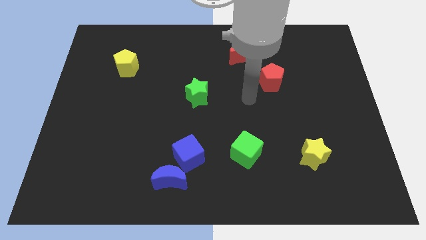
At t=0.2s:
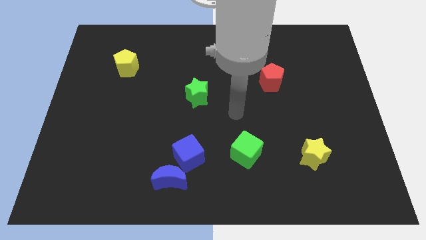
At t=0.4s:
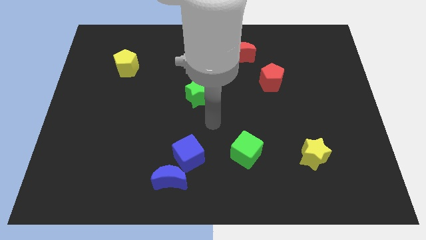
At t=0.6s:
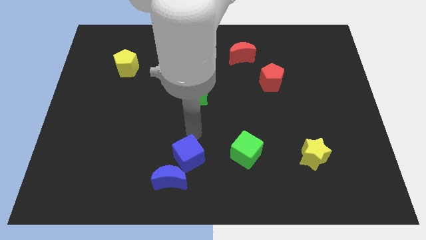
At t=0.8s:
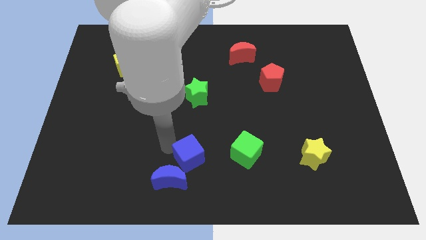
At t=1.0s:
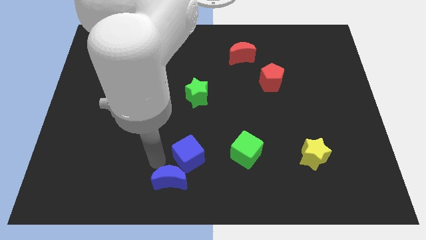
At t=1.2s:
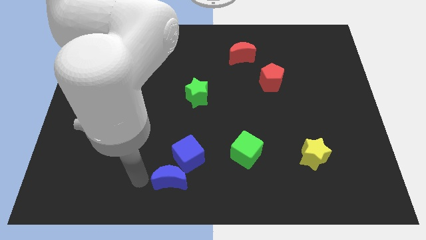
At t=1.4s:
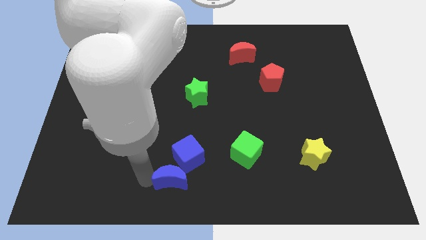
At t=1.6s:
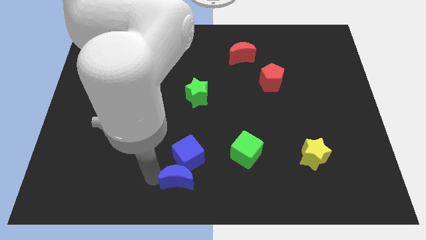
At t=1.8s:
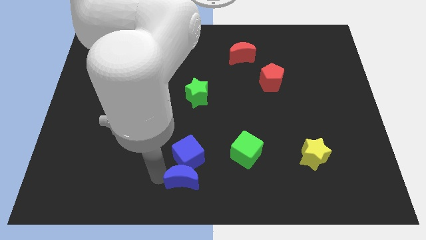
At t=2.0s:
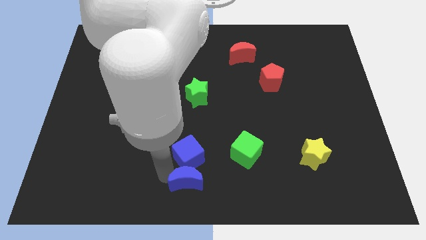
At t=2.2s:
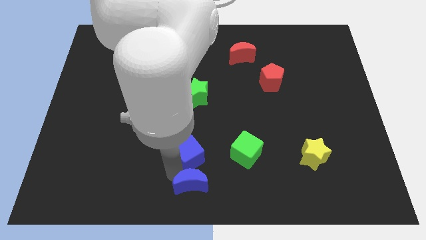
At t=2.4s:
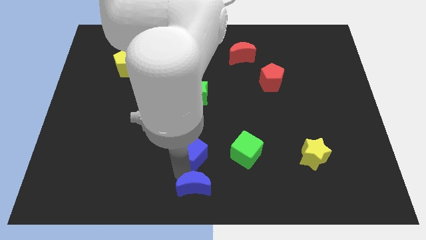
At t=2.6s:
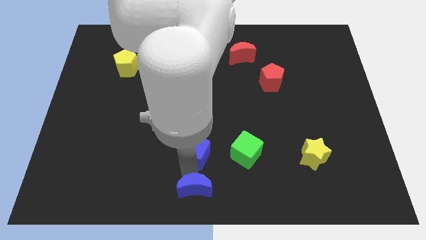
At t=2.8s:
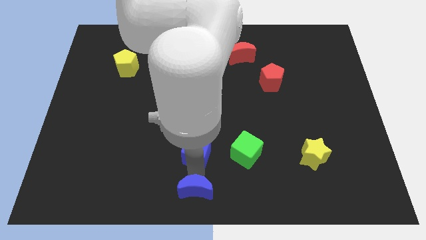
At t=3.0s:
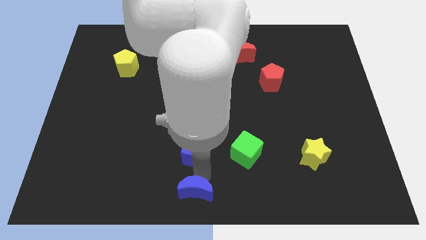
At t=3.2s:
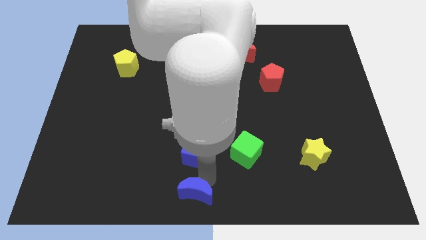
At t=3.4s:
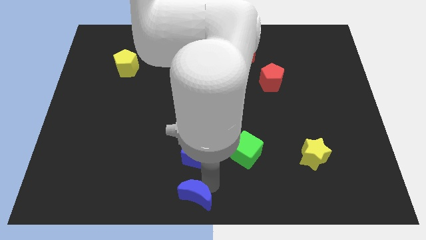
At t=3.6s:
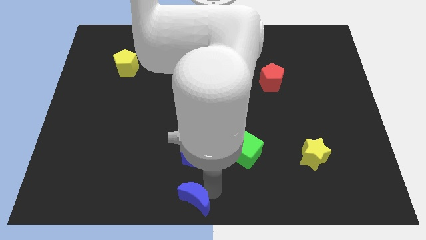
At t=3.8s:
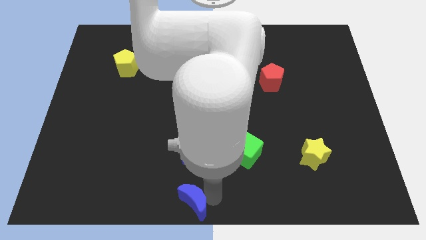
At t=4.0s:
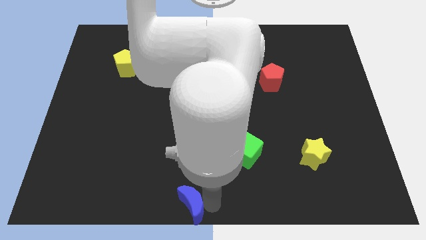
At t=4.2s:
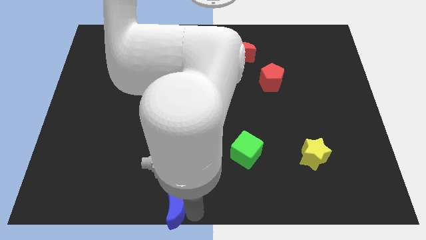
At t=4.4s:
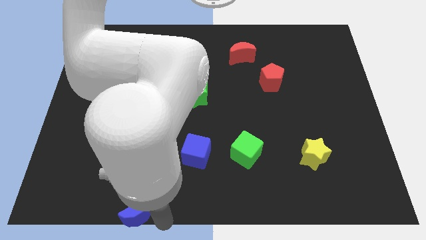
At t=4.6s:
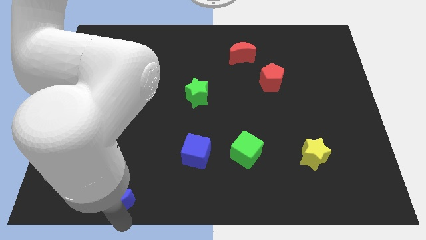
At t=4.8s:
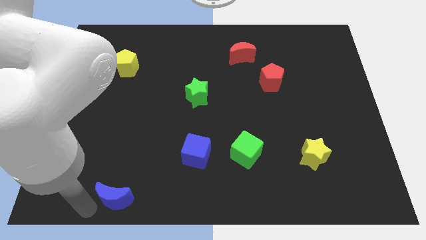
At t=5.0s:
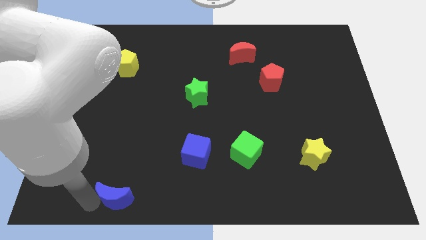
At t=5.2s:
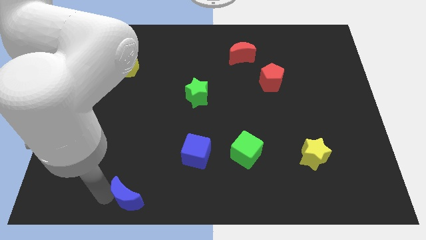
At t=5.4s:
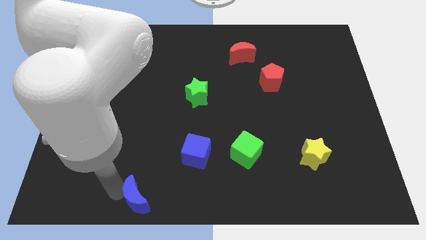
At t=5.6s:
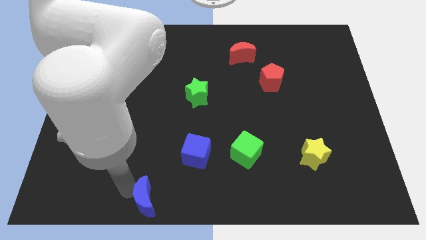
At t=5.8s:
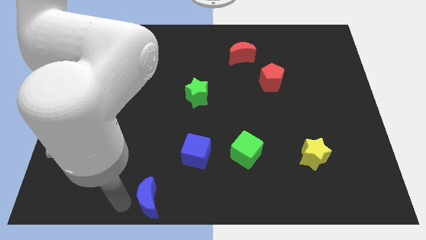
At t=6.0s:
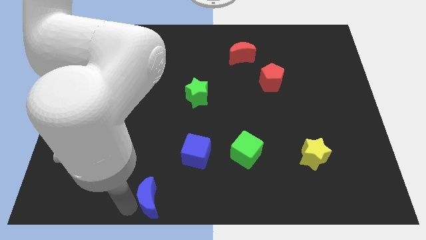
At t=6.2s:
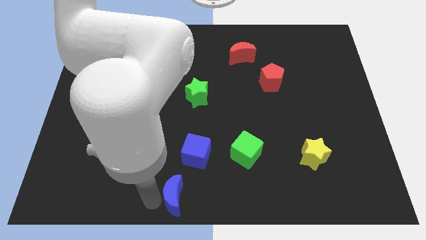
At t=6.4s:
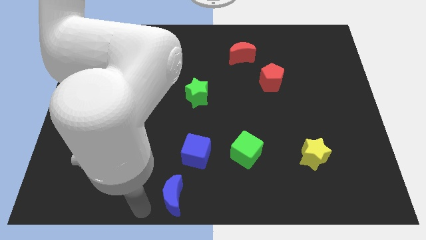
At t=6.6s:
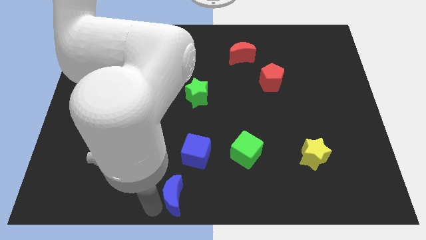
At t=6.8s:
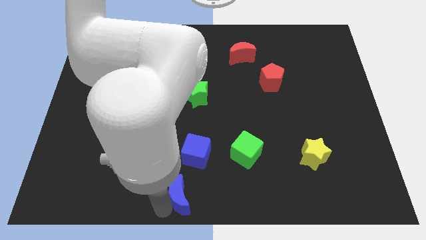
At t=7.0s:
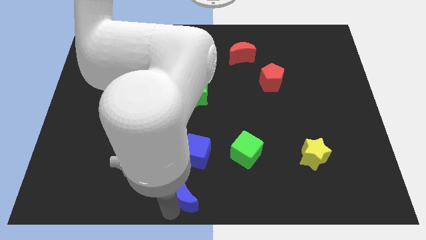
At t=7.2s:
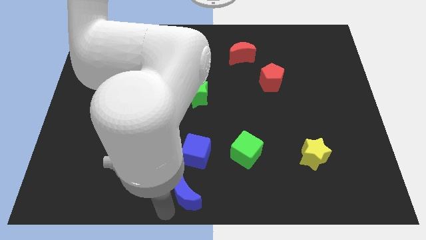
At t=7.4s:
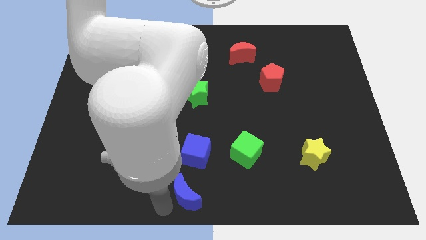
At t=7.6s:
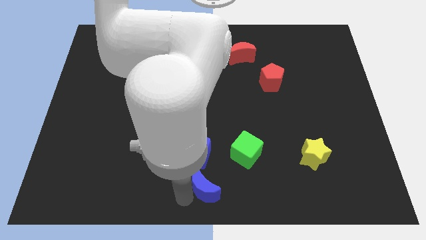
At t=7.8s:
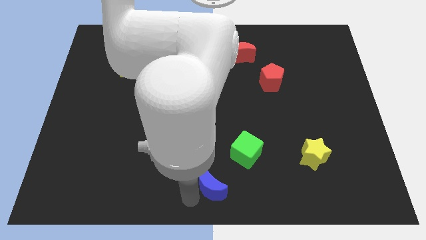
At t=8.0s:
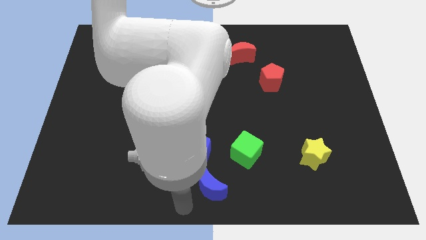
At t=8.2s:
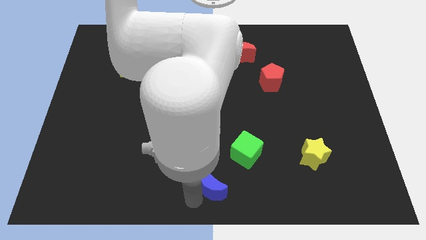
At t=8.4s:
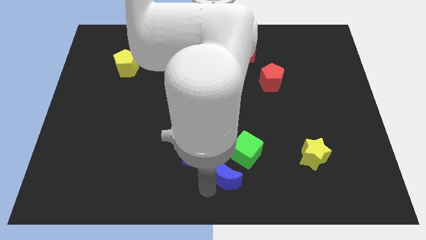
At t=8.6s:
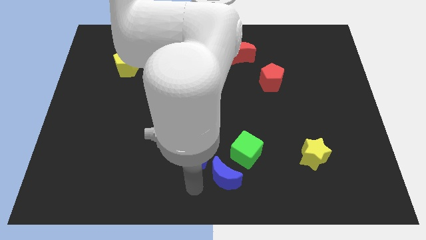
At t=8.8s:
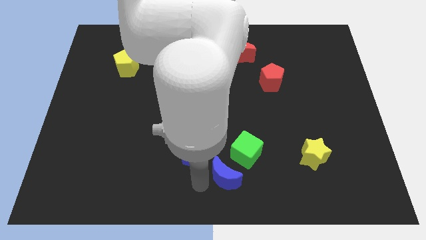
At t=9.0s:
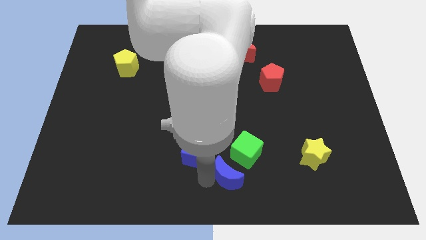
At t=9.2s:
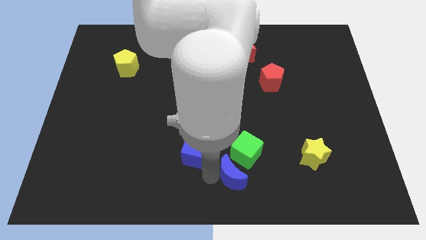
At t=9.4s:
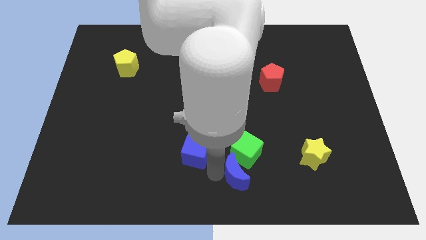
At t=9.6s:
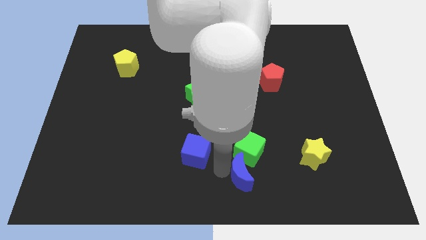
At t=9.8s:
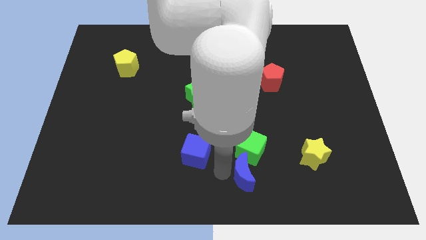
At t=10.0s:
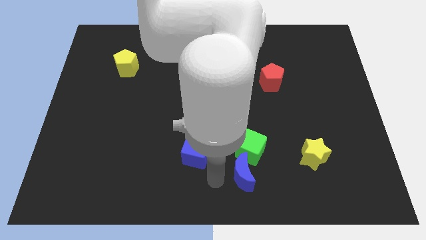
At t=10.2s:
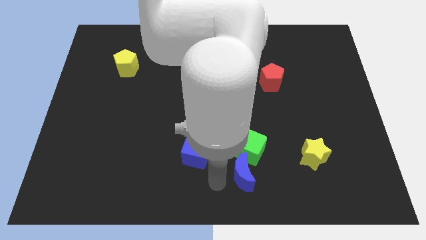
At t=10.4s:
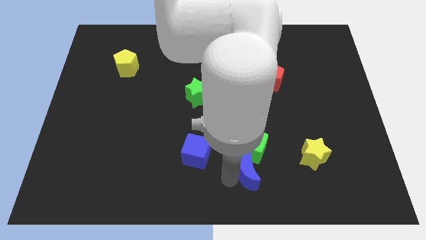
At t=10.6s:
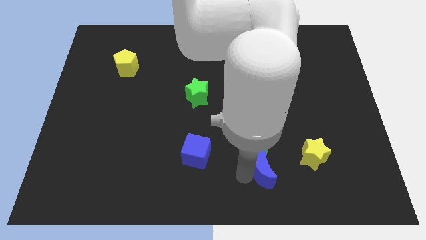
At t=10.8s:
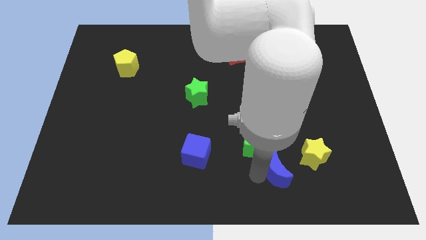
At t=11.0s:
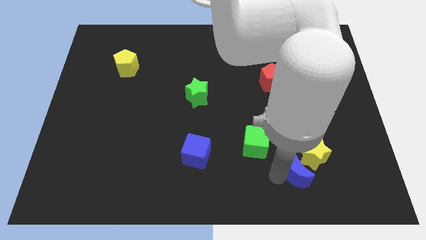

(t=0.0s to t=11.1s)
move the blue moon next to the yellow star

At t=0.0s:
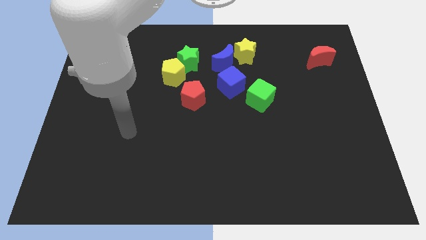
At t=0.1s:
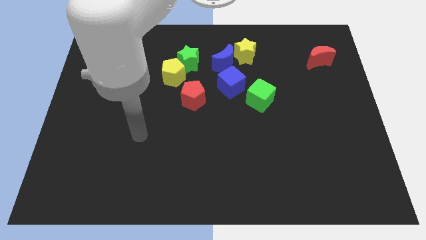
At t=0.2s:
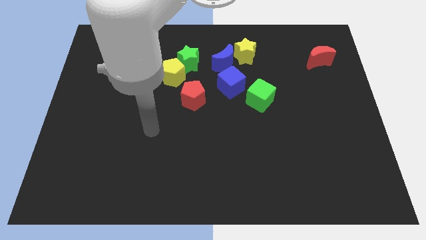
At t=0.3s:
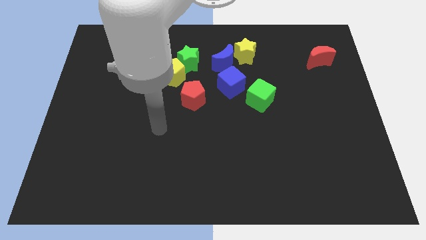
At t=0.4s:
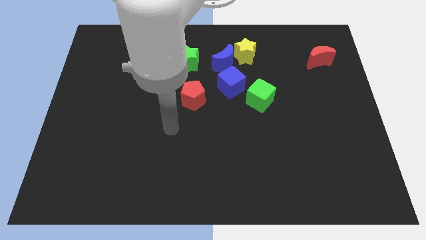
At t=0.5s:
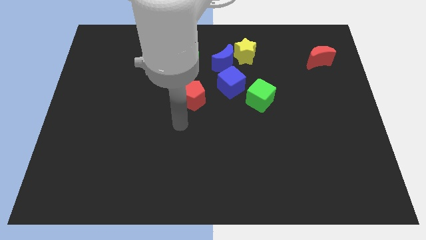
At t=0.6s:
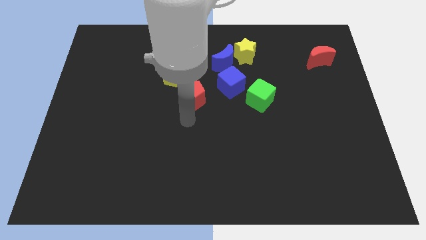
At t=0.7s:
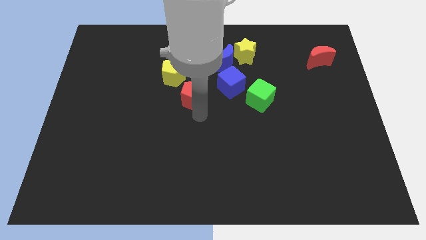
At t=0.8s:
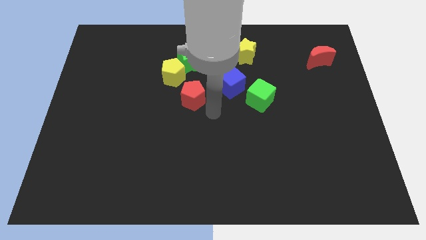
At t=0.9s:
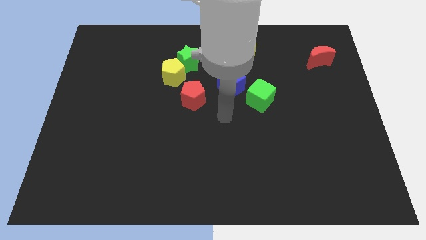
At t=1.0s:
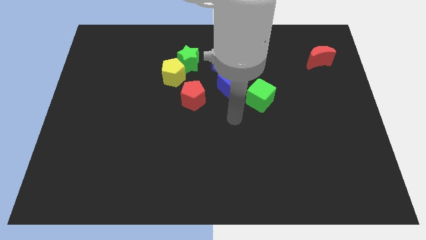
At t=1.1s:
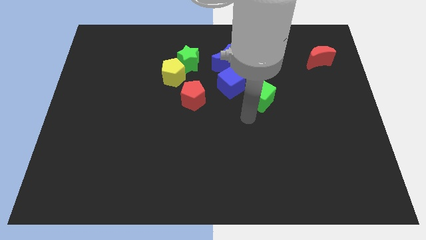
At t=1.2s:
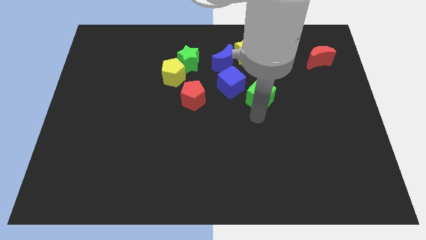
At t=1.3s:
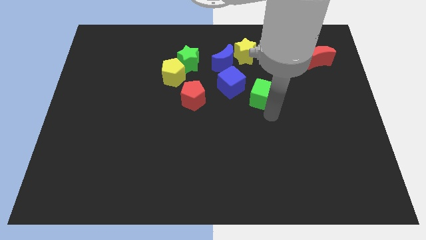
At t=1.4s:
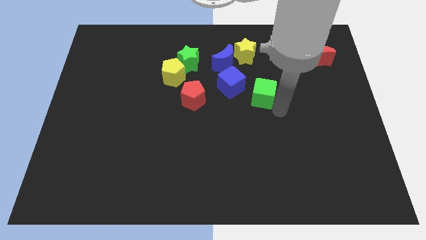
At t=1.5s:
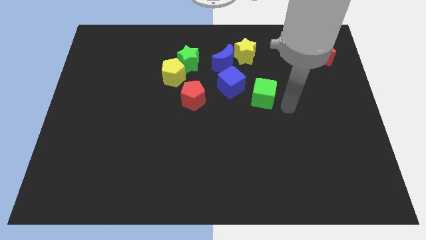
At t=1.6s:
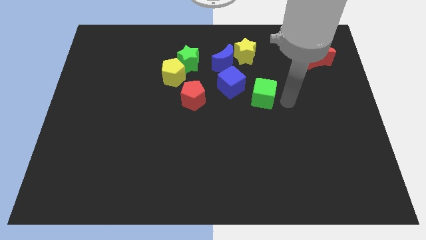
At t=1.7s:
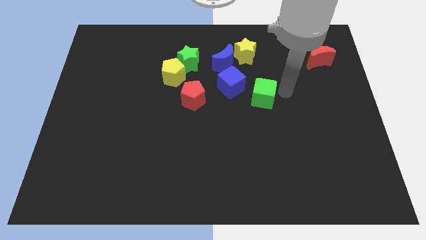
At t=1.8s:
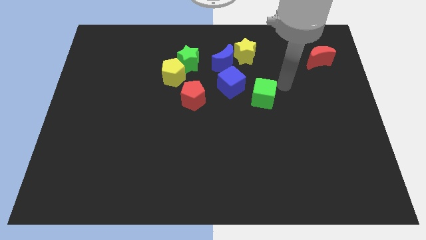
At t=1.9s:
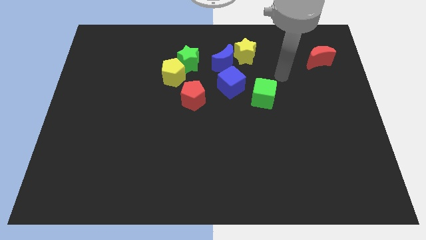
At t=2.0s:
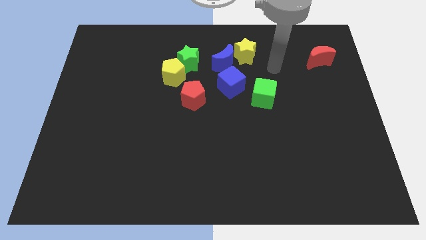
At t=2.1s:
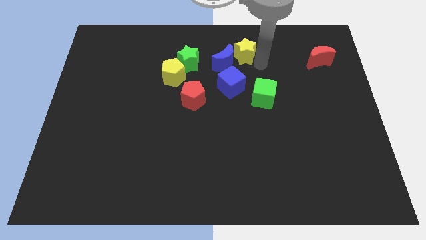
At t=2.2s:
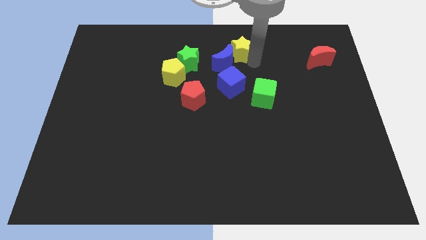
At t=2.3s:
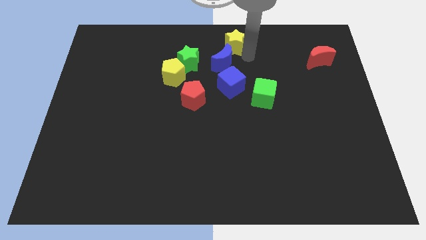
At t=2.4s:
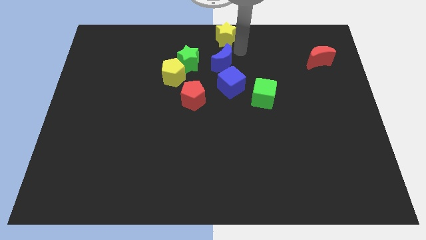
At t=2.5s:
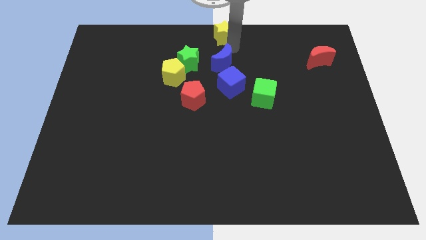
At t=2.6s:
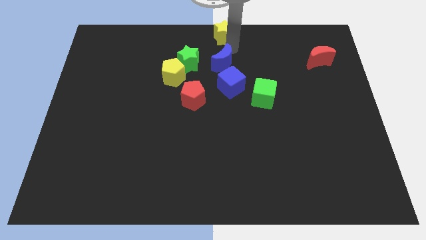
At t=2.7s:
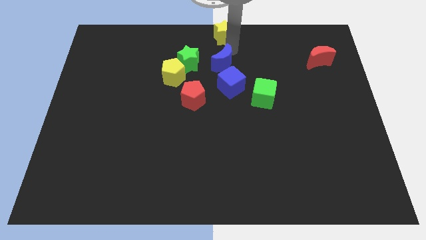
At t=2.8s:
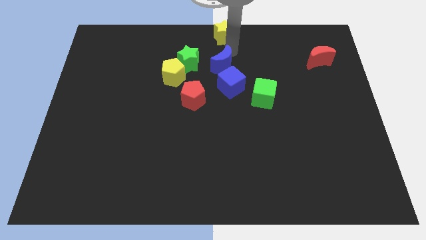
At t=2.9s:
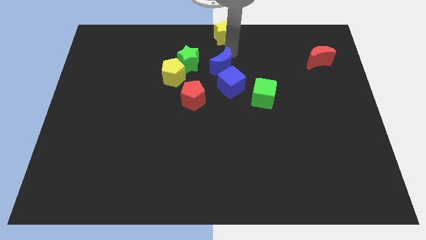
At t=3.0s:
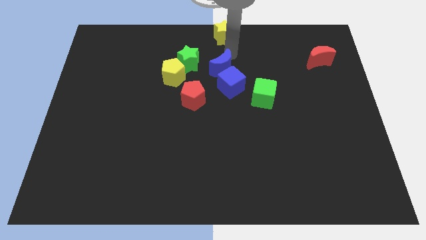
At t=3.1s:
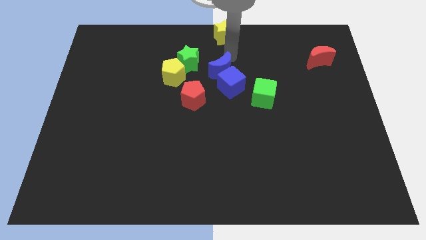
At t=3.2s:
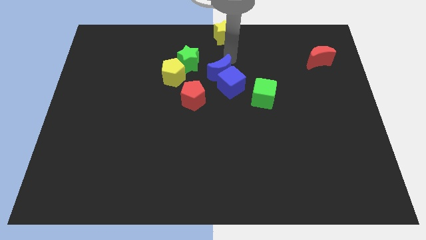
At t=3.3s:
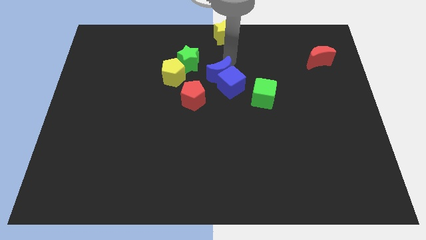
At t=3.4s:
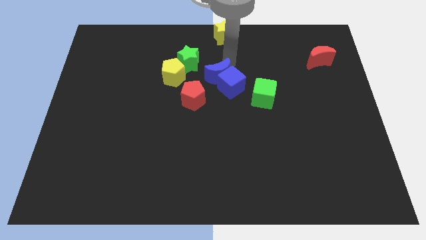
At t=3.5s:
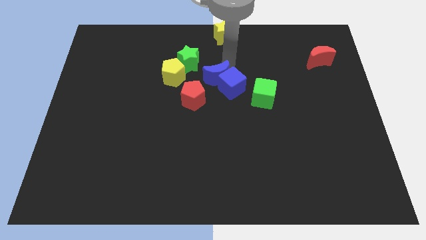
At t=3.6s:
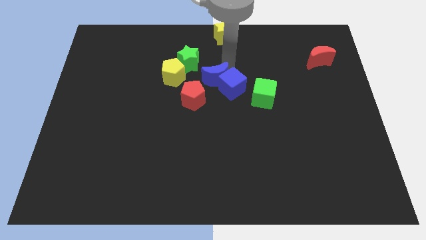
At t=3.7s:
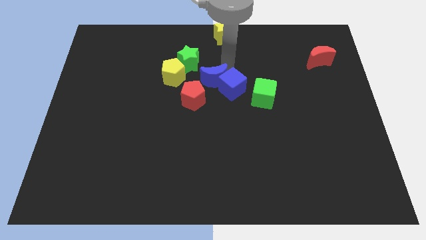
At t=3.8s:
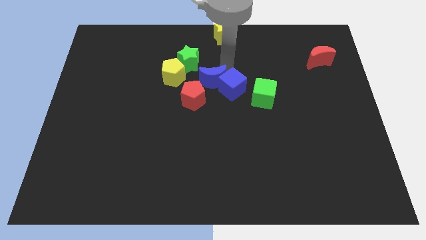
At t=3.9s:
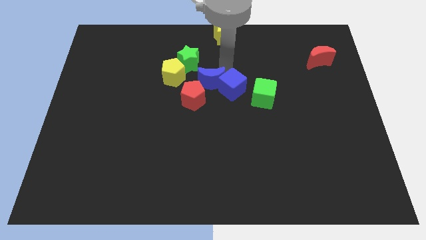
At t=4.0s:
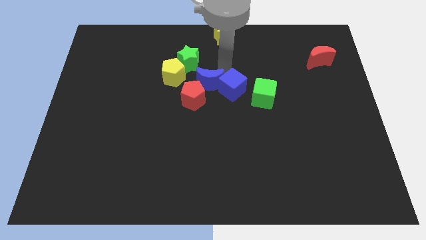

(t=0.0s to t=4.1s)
push the blue moon towards the red pentagon
